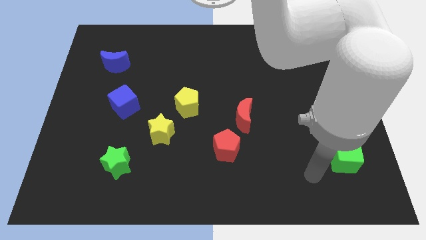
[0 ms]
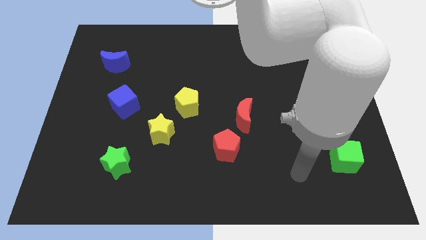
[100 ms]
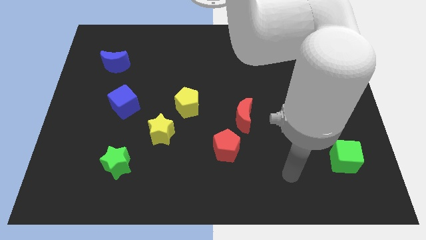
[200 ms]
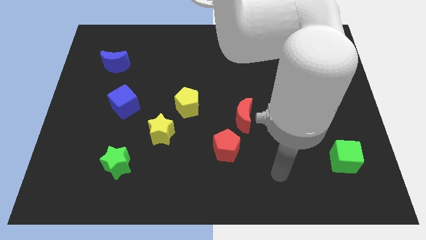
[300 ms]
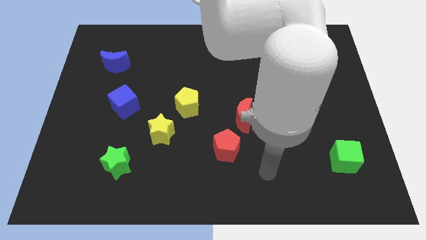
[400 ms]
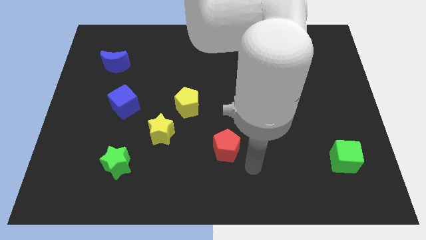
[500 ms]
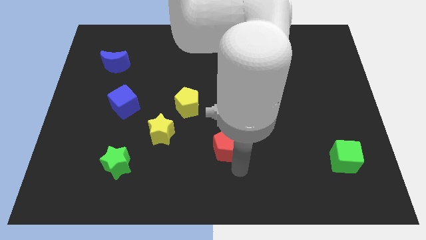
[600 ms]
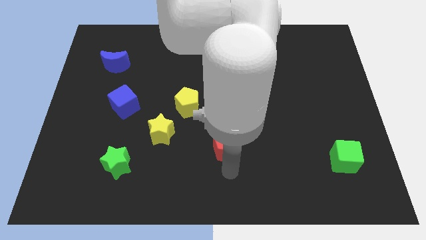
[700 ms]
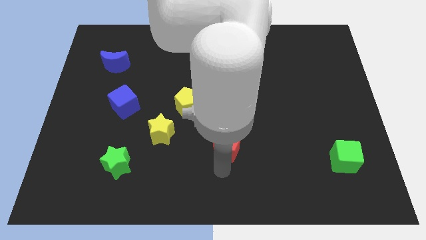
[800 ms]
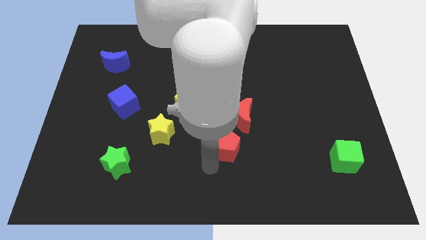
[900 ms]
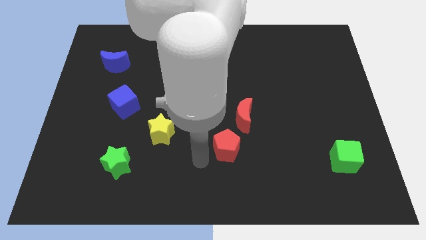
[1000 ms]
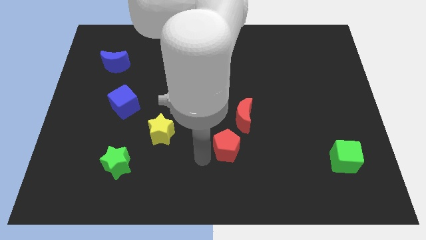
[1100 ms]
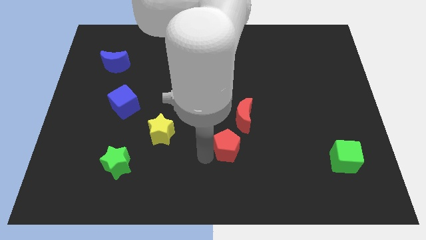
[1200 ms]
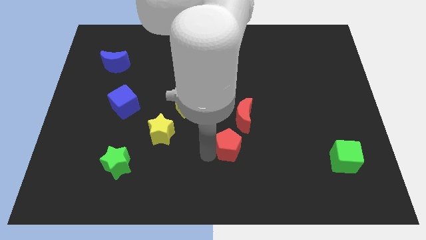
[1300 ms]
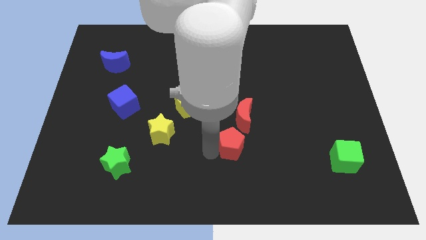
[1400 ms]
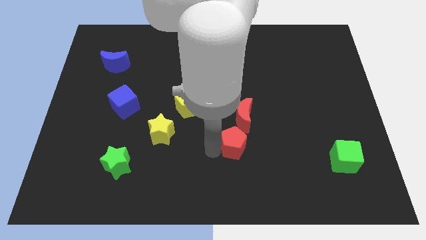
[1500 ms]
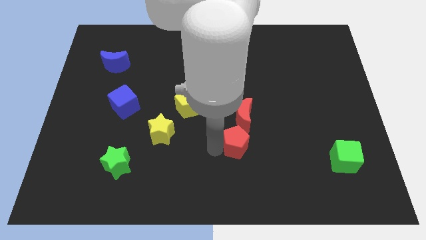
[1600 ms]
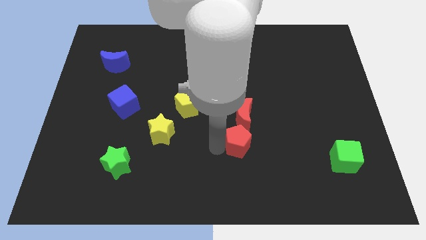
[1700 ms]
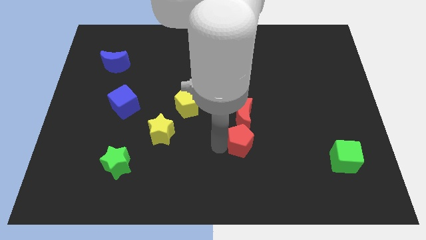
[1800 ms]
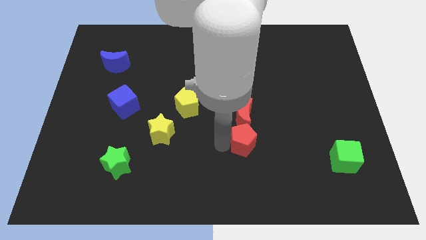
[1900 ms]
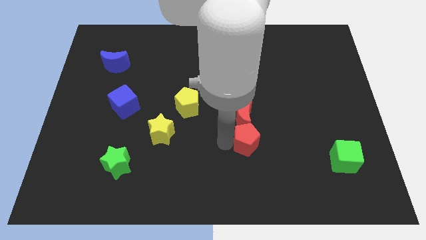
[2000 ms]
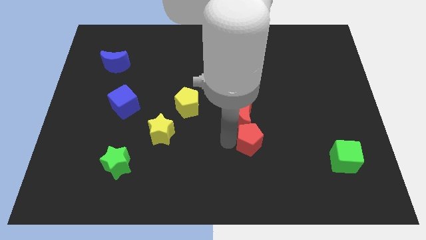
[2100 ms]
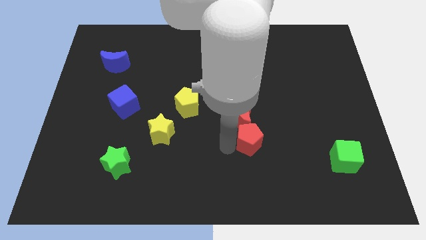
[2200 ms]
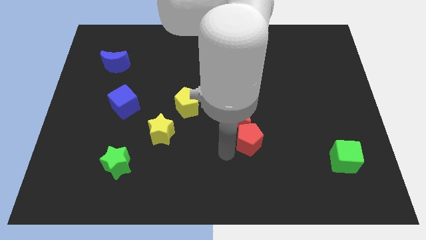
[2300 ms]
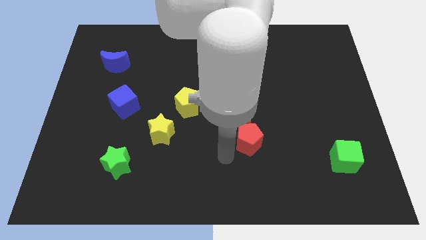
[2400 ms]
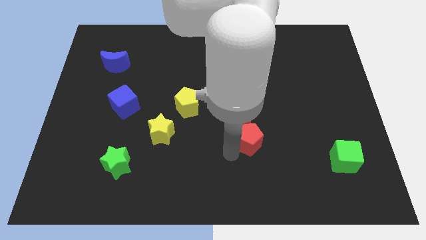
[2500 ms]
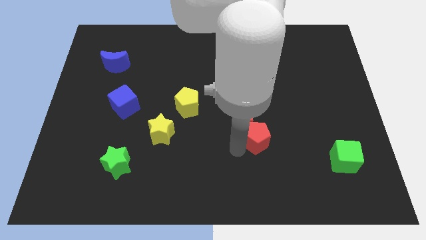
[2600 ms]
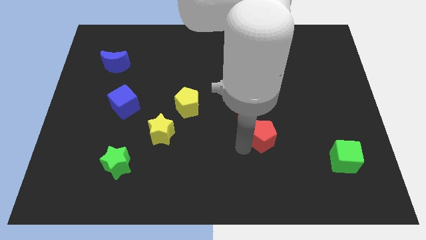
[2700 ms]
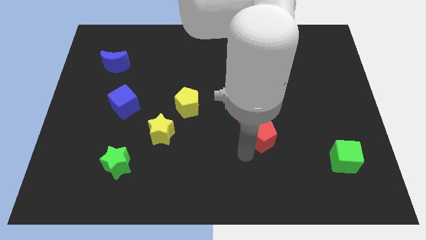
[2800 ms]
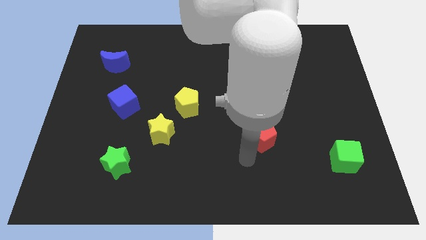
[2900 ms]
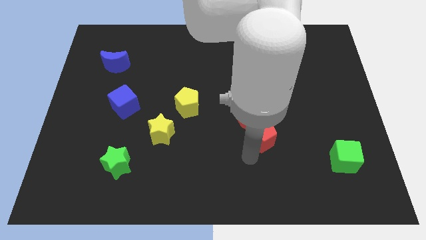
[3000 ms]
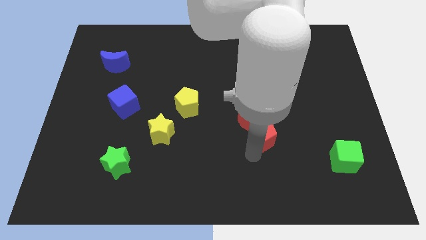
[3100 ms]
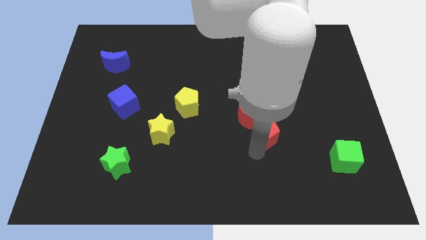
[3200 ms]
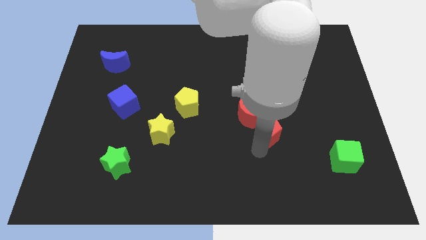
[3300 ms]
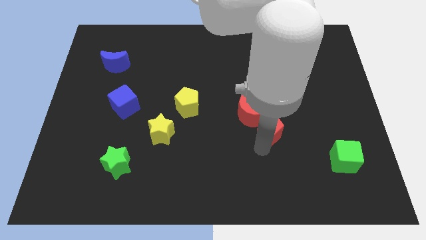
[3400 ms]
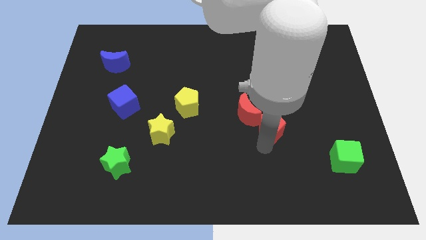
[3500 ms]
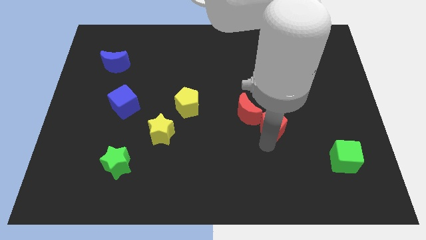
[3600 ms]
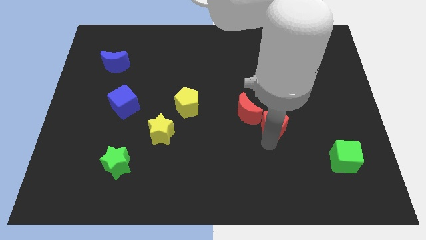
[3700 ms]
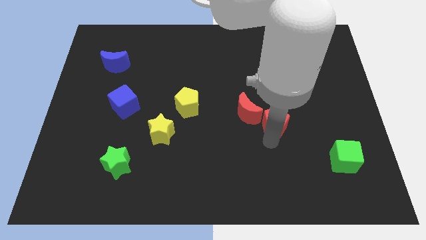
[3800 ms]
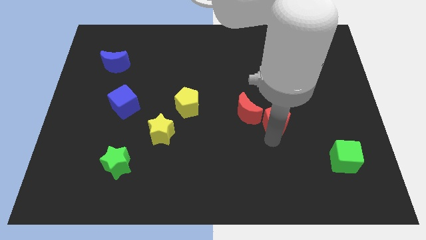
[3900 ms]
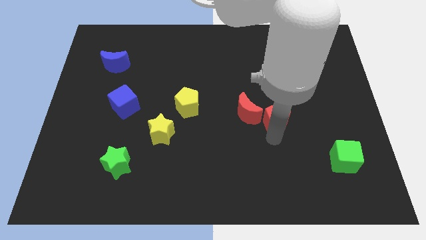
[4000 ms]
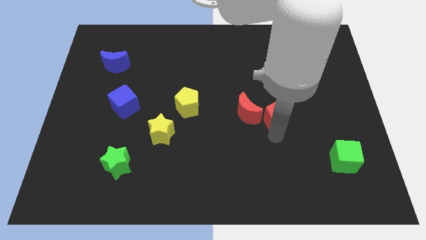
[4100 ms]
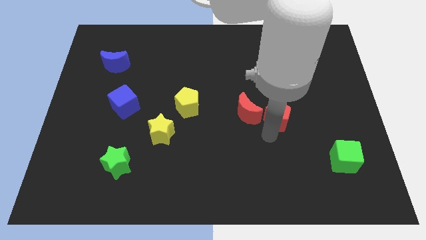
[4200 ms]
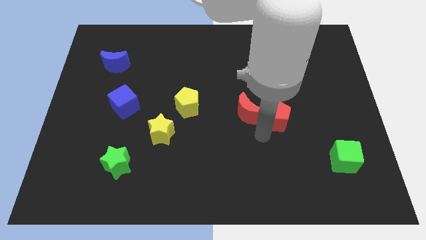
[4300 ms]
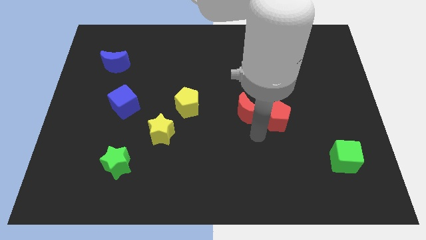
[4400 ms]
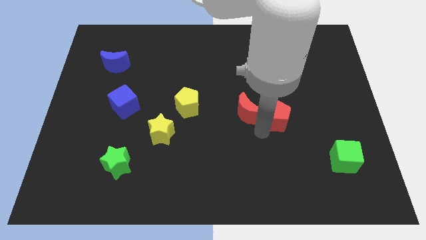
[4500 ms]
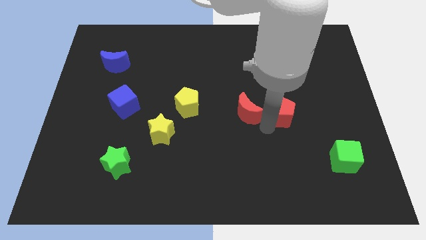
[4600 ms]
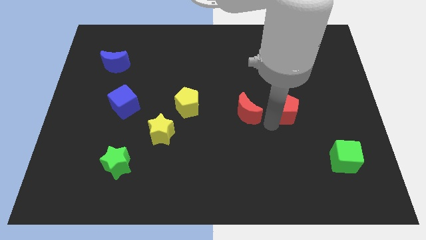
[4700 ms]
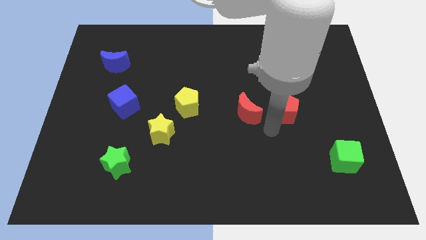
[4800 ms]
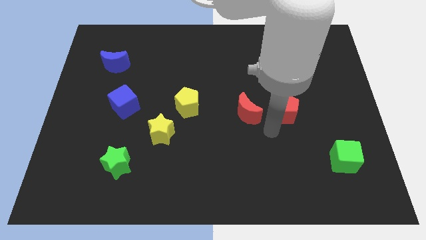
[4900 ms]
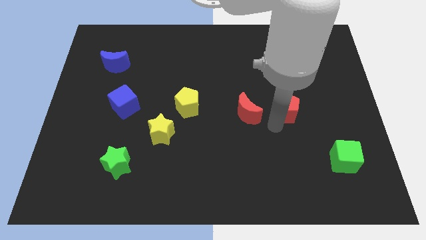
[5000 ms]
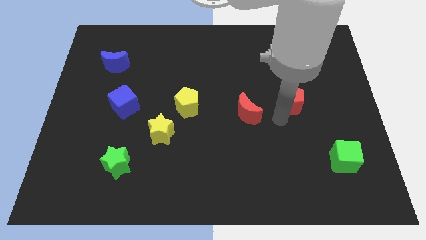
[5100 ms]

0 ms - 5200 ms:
slide the red pentagon up and then to the right

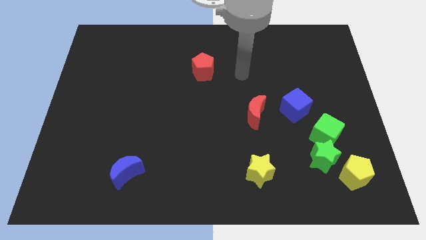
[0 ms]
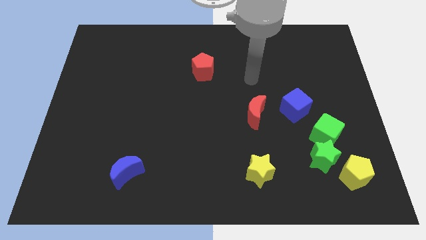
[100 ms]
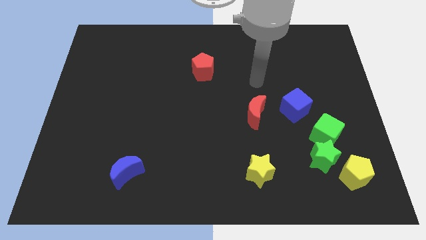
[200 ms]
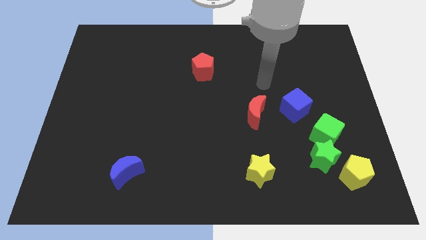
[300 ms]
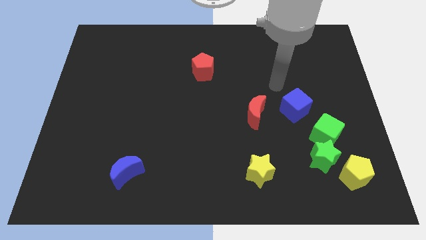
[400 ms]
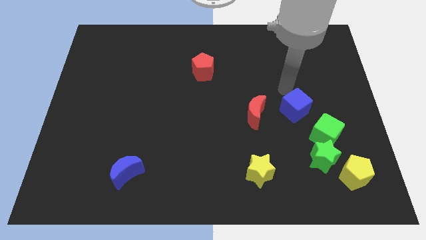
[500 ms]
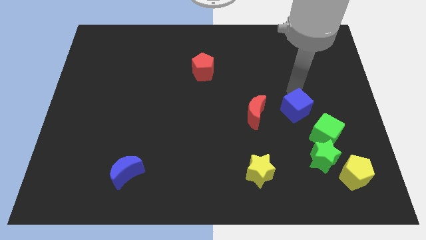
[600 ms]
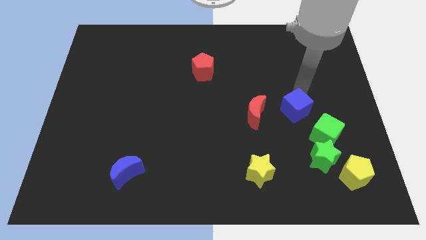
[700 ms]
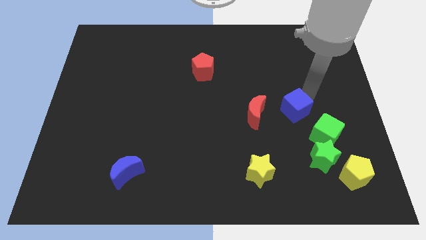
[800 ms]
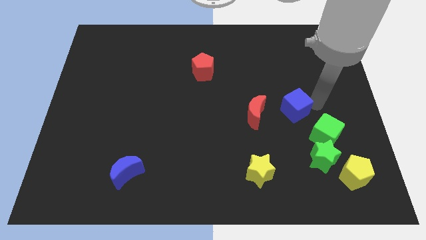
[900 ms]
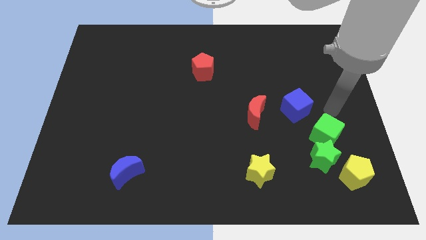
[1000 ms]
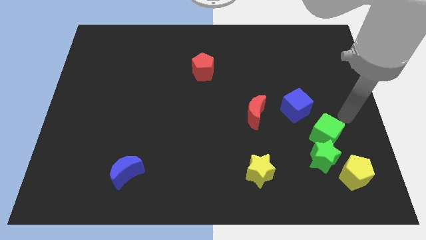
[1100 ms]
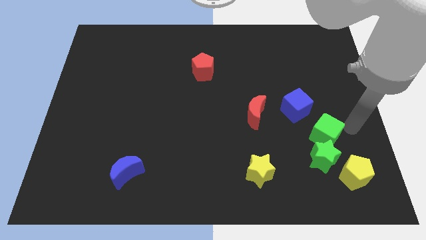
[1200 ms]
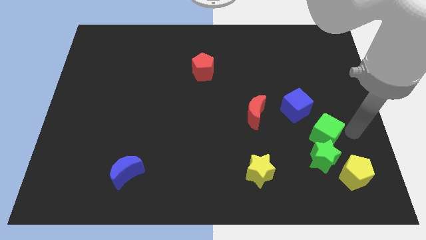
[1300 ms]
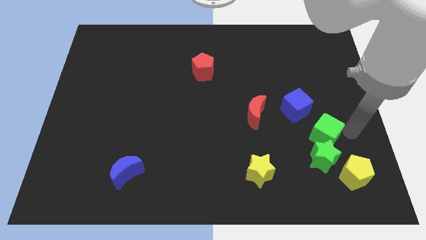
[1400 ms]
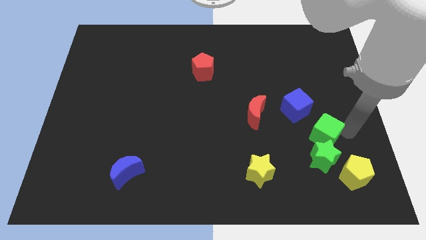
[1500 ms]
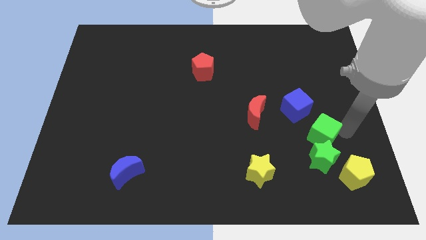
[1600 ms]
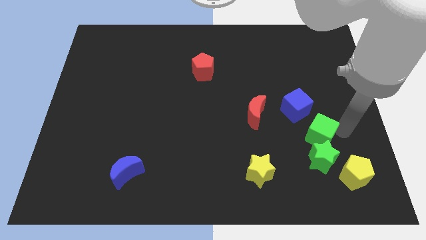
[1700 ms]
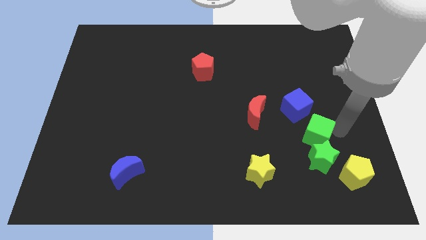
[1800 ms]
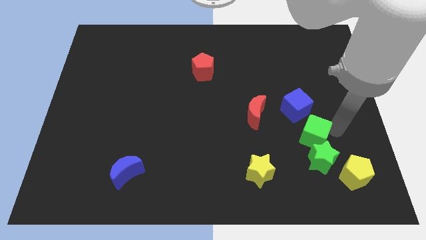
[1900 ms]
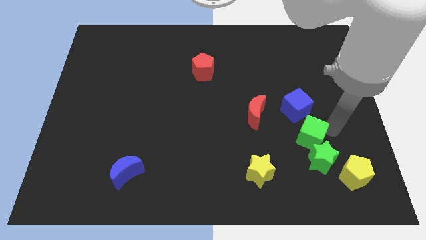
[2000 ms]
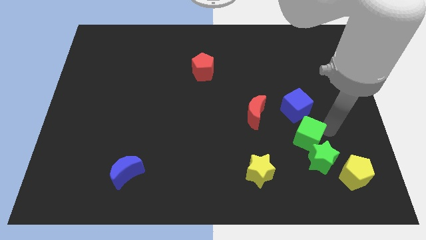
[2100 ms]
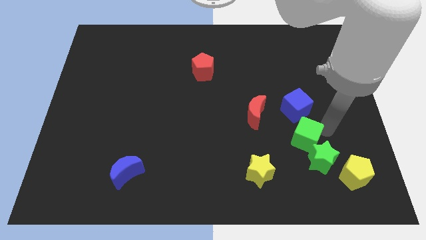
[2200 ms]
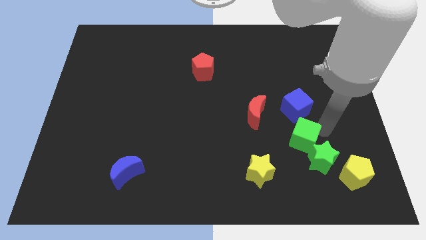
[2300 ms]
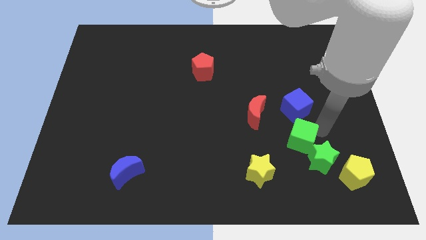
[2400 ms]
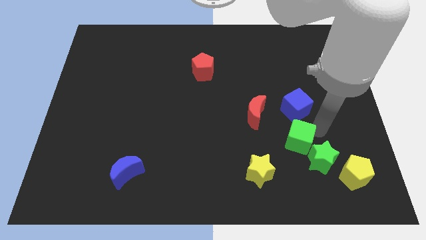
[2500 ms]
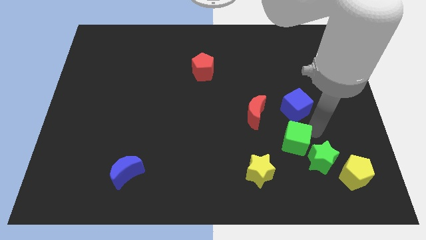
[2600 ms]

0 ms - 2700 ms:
slide the green cube somewhat to the left
